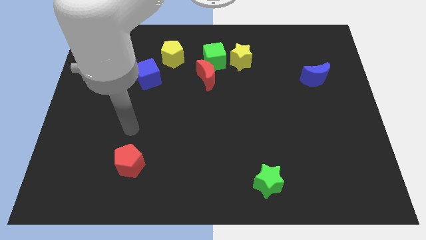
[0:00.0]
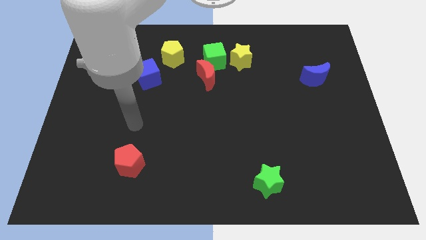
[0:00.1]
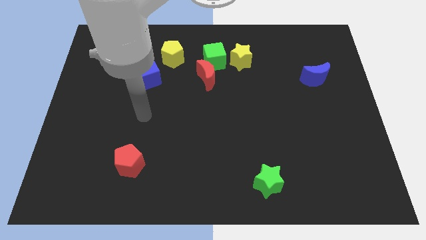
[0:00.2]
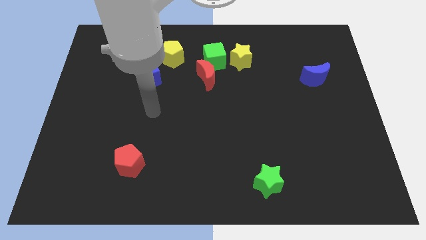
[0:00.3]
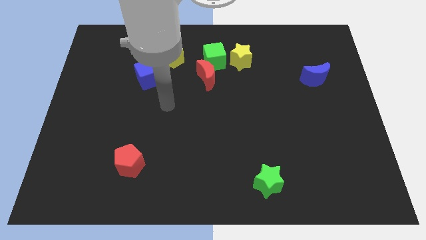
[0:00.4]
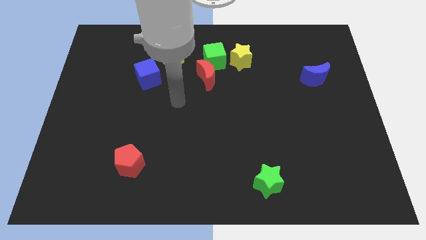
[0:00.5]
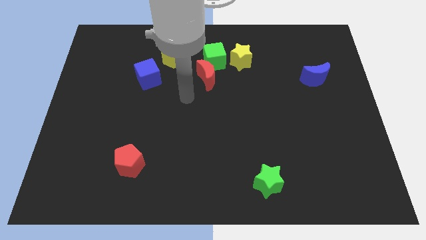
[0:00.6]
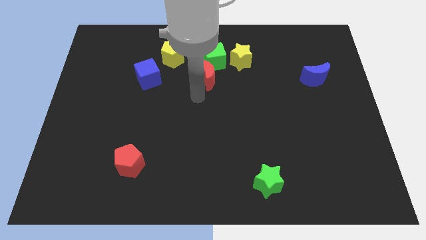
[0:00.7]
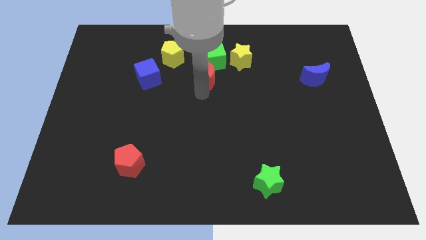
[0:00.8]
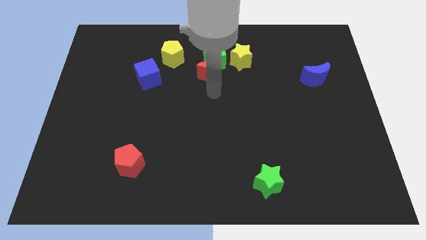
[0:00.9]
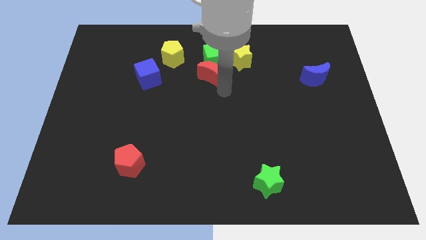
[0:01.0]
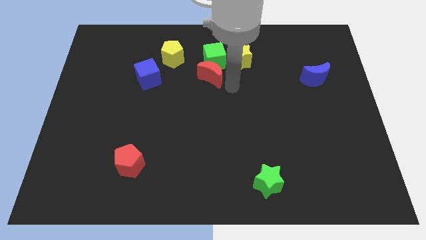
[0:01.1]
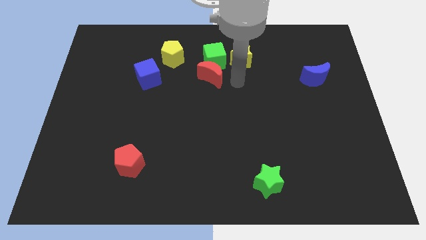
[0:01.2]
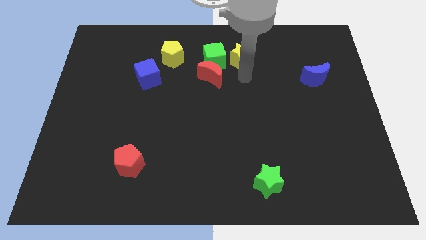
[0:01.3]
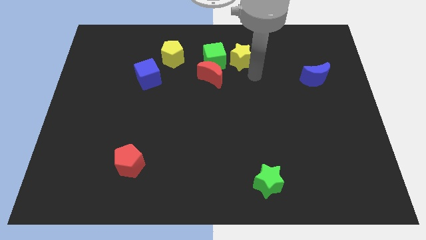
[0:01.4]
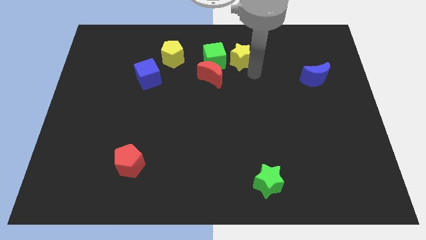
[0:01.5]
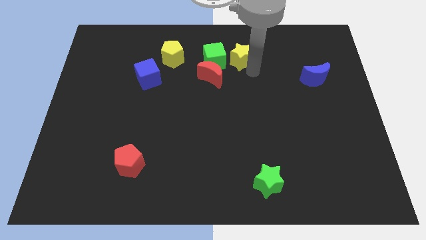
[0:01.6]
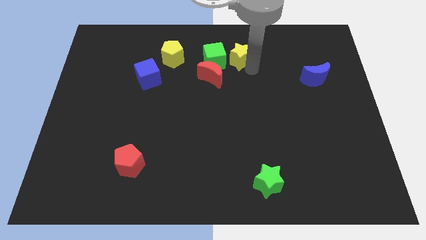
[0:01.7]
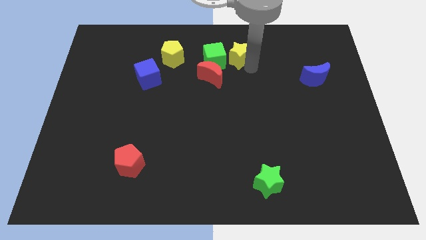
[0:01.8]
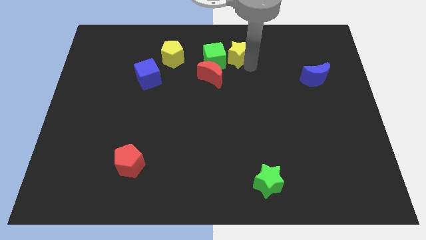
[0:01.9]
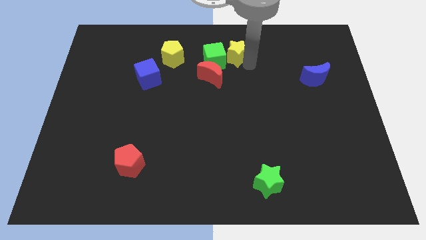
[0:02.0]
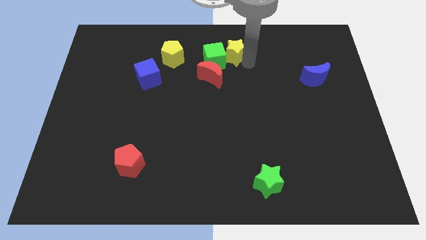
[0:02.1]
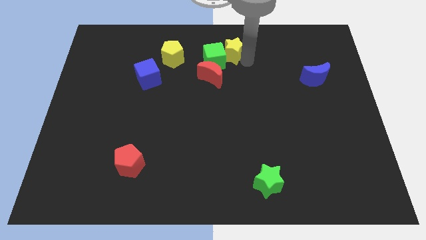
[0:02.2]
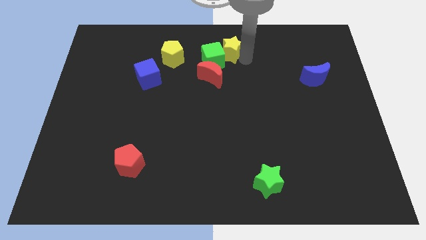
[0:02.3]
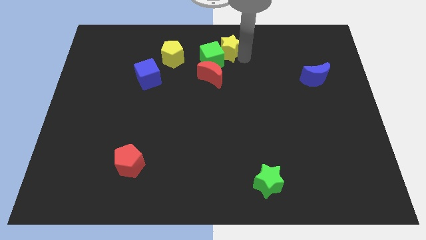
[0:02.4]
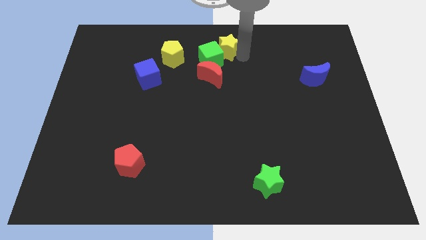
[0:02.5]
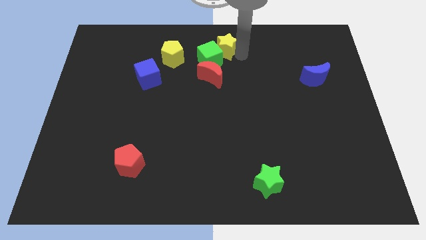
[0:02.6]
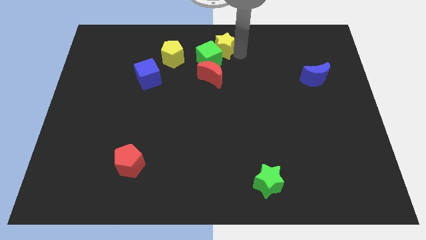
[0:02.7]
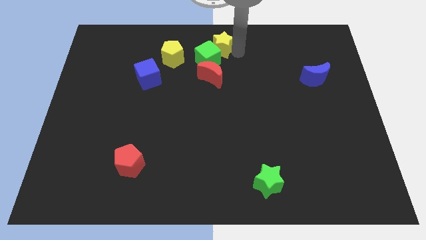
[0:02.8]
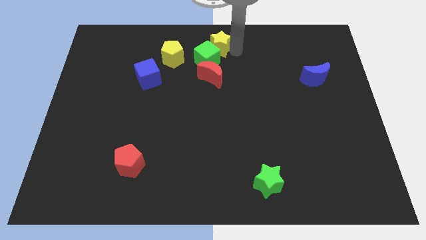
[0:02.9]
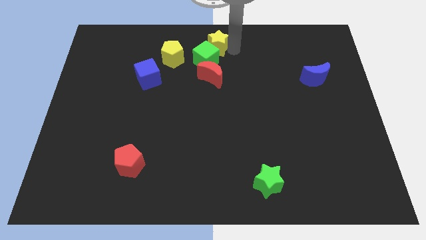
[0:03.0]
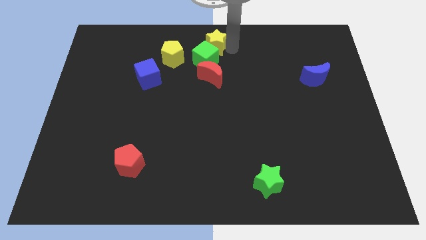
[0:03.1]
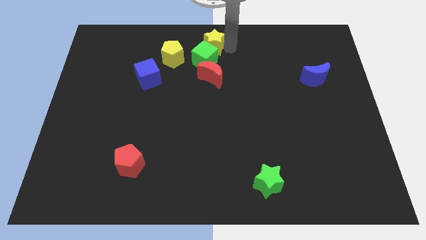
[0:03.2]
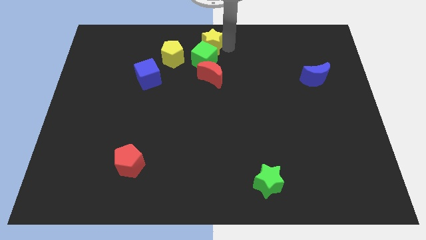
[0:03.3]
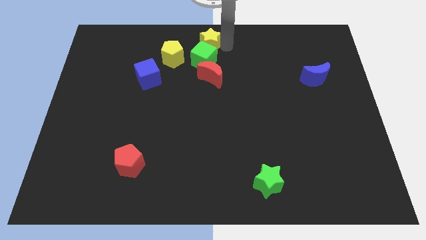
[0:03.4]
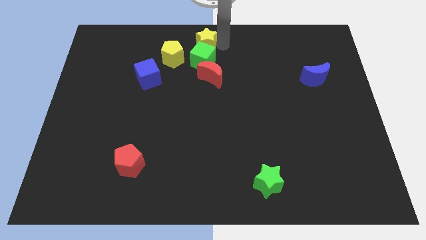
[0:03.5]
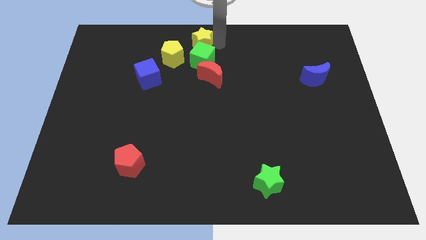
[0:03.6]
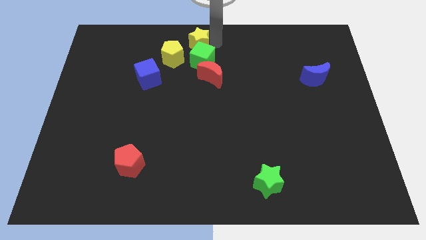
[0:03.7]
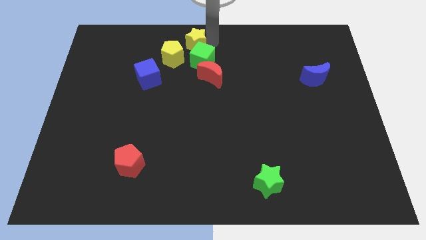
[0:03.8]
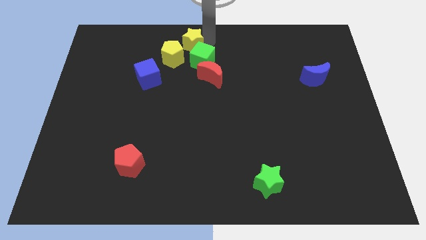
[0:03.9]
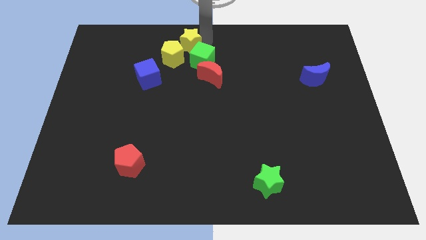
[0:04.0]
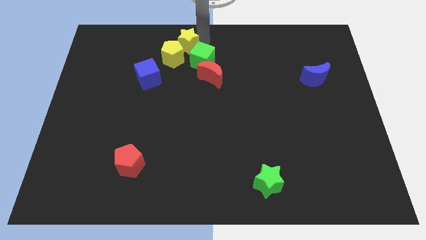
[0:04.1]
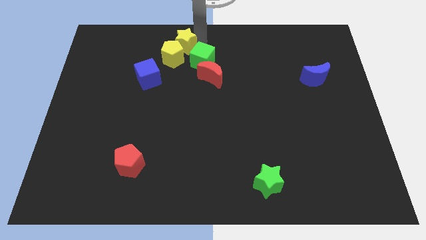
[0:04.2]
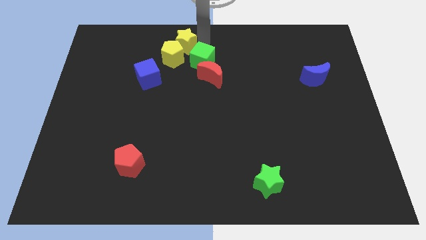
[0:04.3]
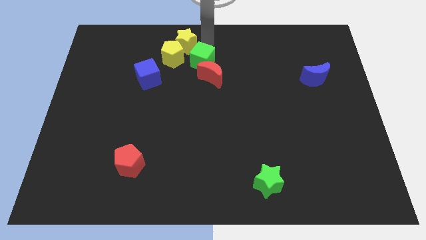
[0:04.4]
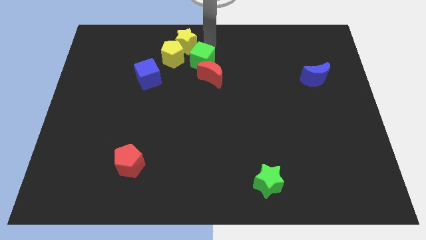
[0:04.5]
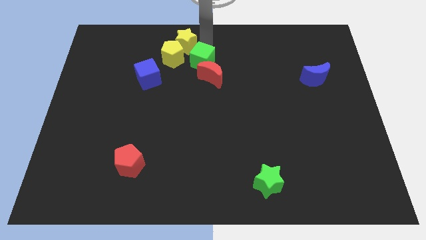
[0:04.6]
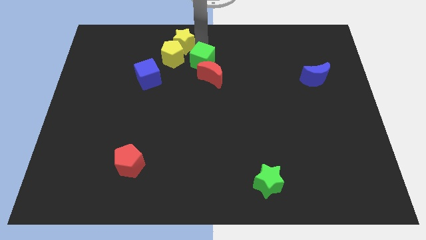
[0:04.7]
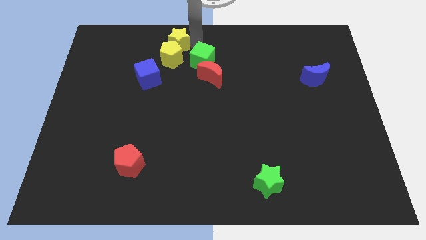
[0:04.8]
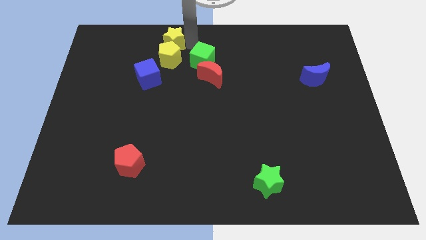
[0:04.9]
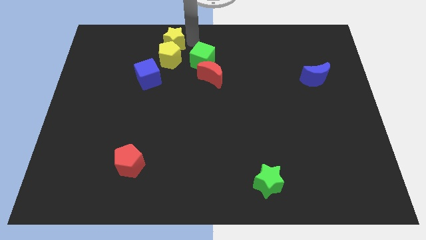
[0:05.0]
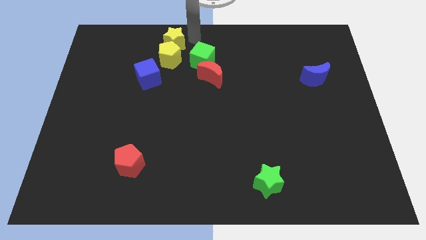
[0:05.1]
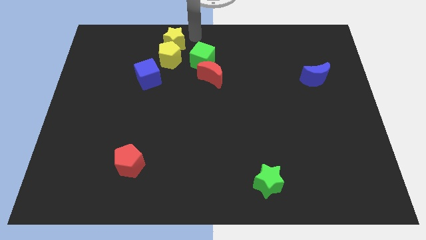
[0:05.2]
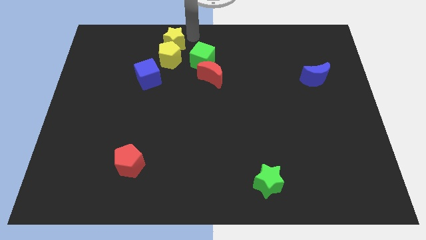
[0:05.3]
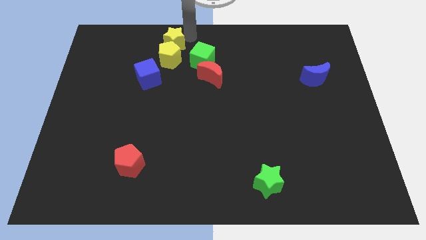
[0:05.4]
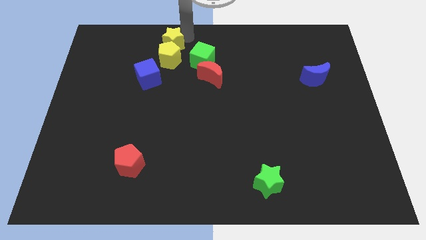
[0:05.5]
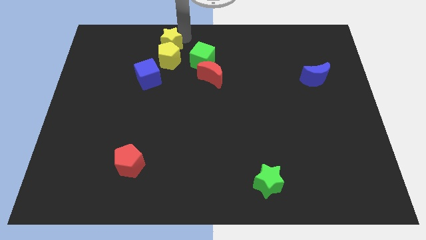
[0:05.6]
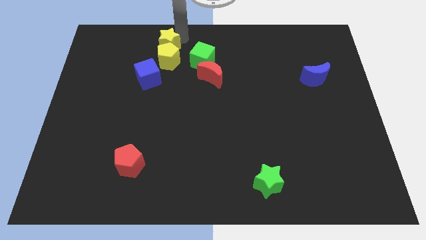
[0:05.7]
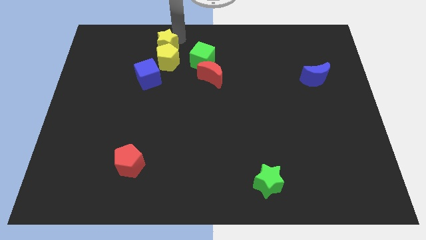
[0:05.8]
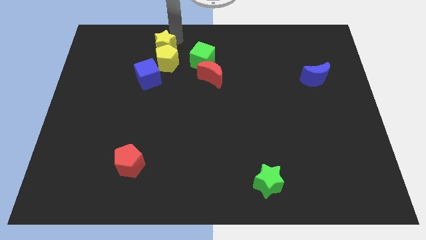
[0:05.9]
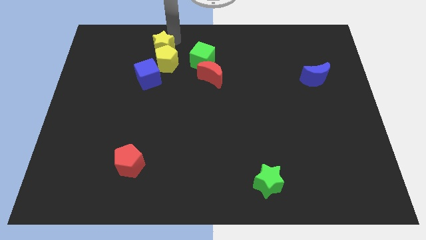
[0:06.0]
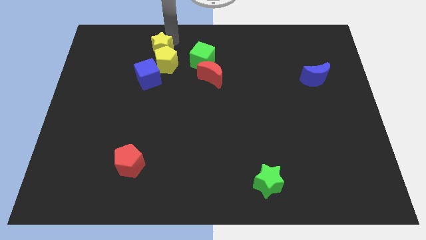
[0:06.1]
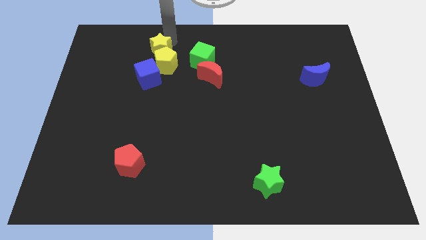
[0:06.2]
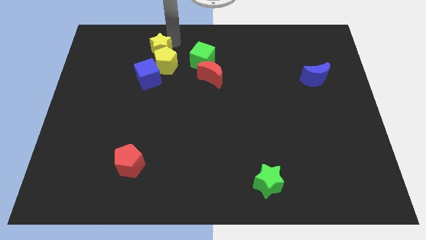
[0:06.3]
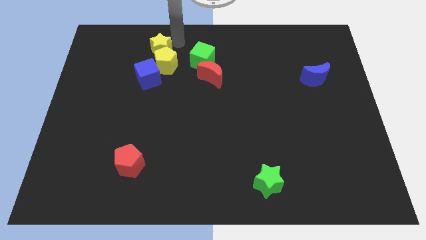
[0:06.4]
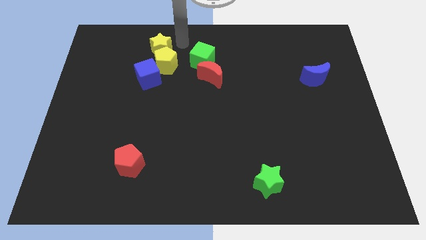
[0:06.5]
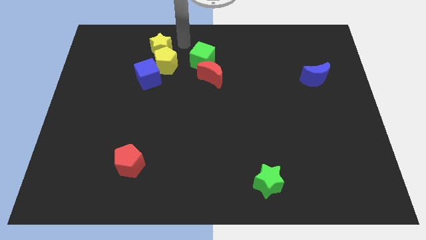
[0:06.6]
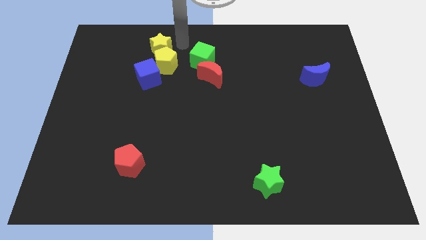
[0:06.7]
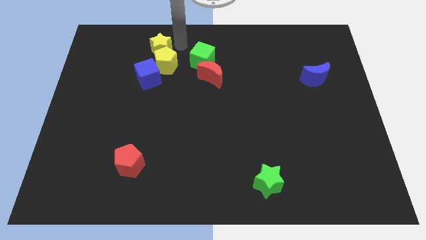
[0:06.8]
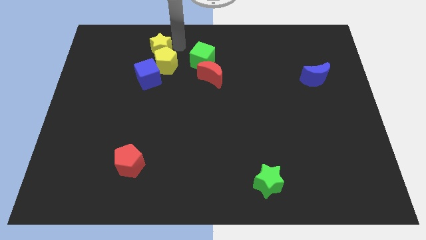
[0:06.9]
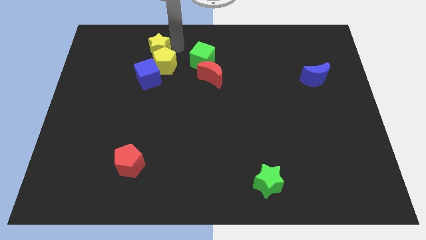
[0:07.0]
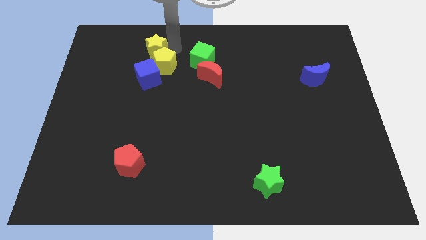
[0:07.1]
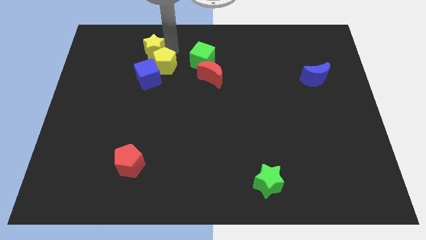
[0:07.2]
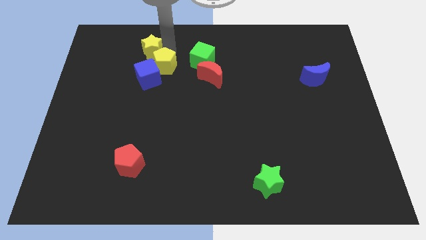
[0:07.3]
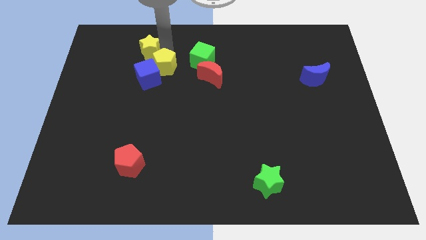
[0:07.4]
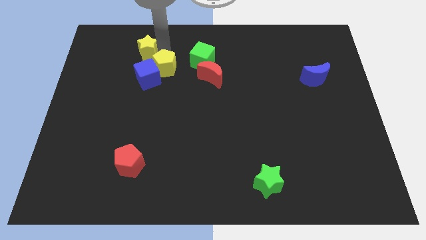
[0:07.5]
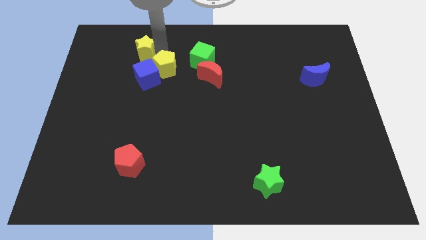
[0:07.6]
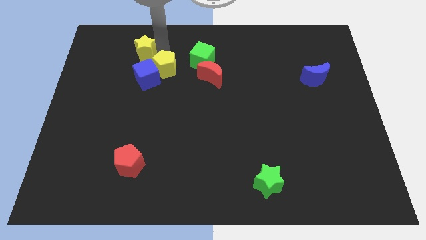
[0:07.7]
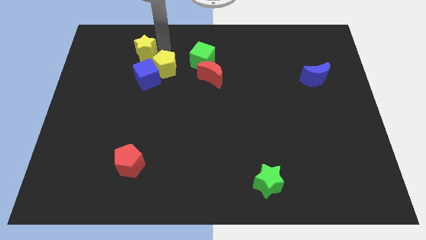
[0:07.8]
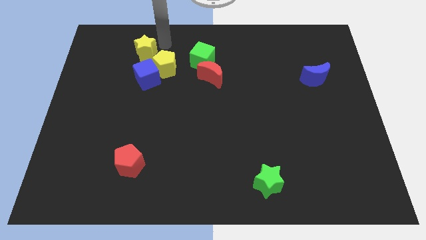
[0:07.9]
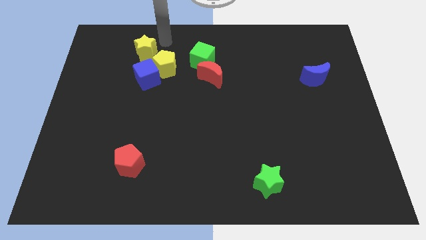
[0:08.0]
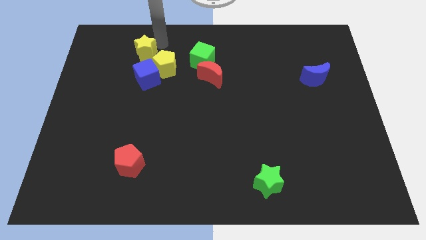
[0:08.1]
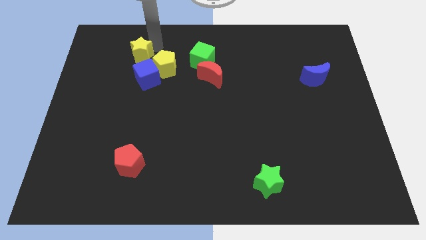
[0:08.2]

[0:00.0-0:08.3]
move the yellow star to the top left side of the blue cube
